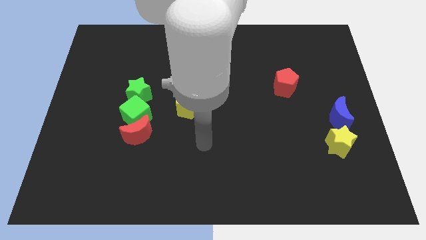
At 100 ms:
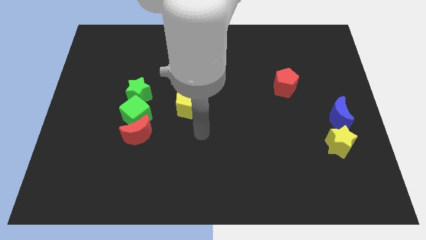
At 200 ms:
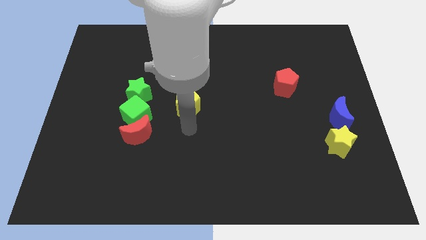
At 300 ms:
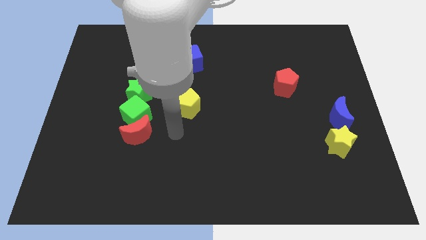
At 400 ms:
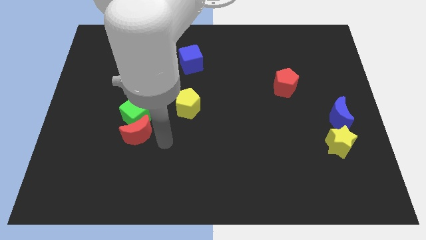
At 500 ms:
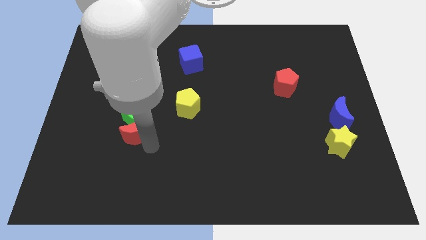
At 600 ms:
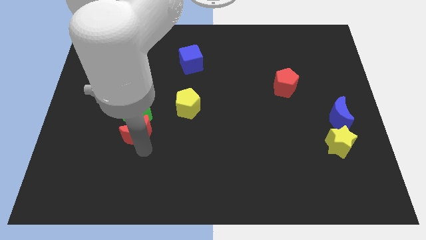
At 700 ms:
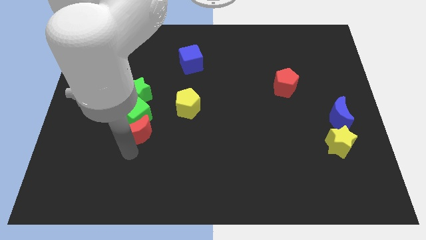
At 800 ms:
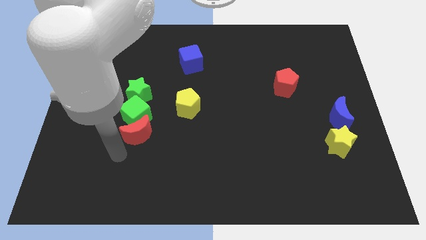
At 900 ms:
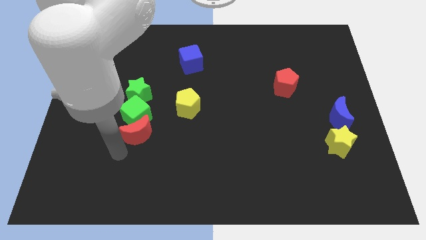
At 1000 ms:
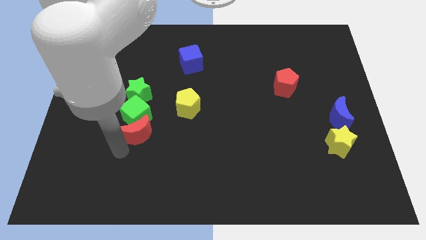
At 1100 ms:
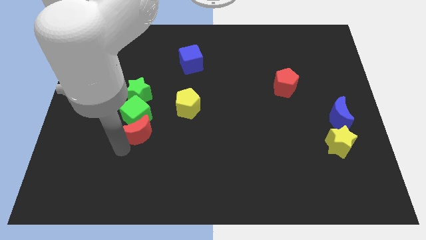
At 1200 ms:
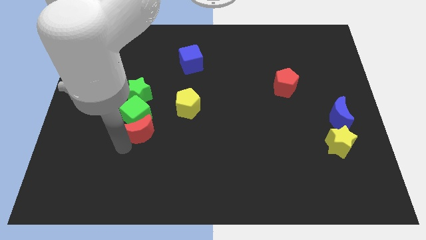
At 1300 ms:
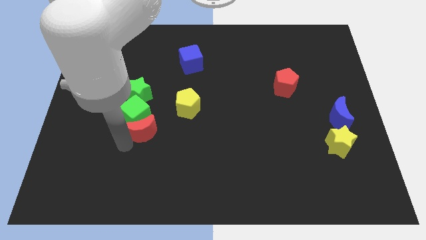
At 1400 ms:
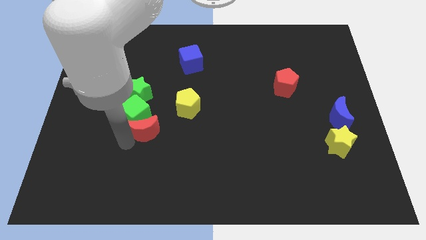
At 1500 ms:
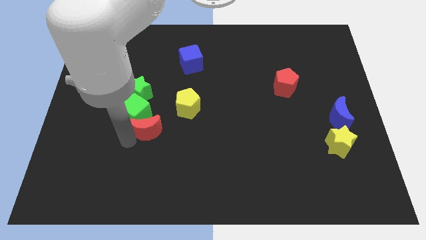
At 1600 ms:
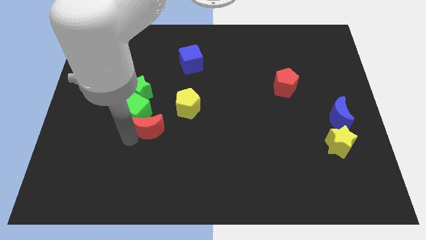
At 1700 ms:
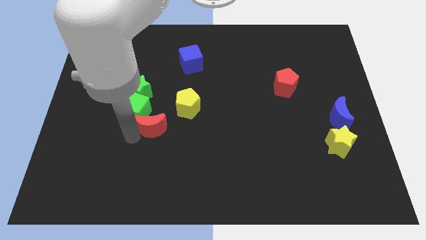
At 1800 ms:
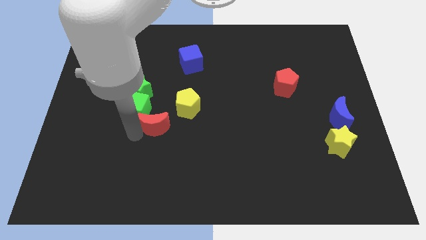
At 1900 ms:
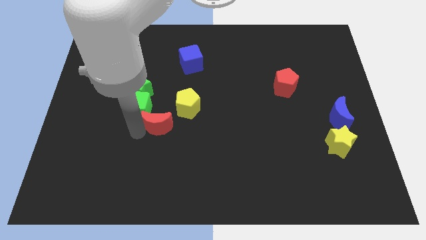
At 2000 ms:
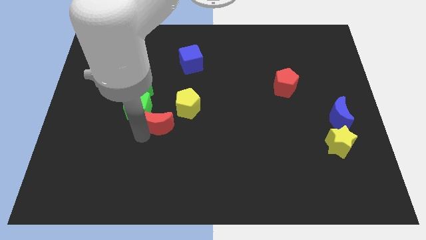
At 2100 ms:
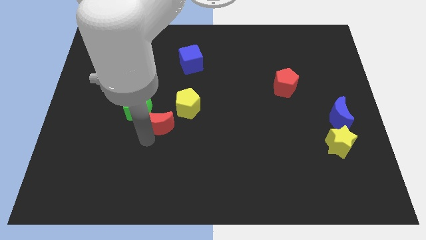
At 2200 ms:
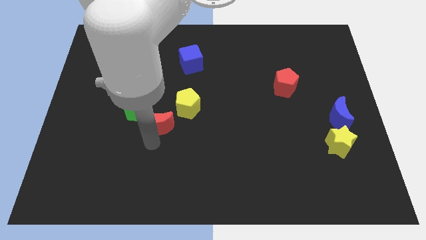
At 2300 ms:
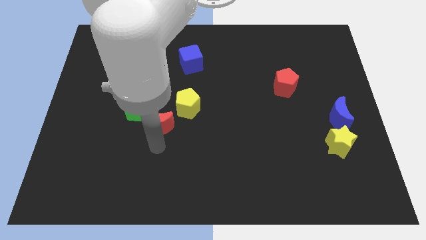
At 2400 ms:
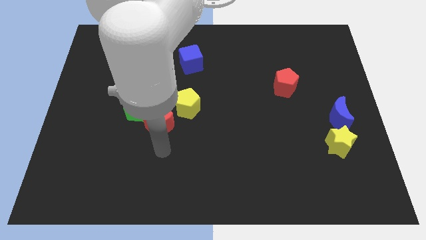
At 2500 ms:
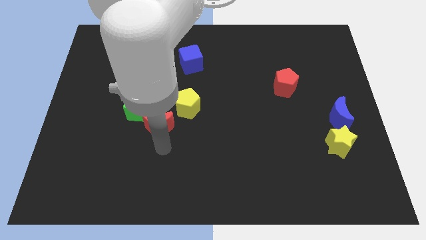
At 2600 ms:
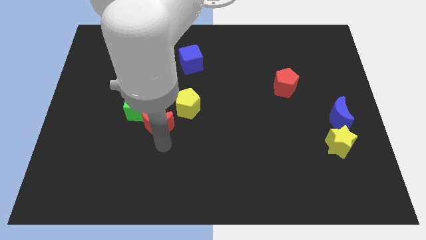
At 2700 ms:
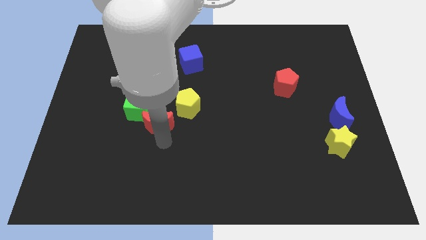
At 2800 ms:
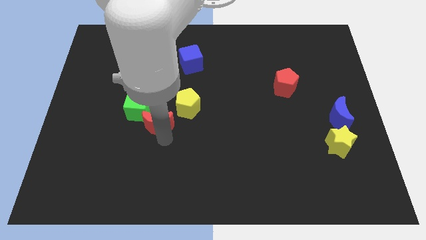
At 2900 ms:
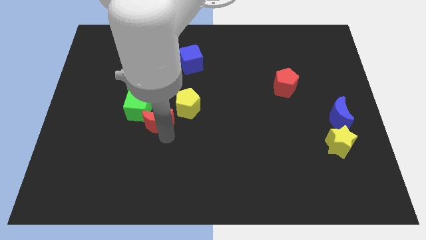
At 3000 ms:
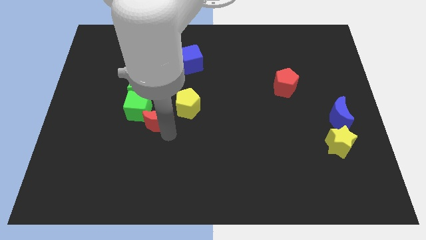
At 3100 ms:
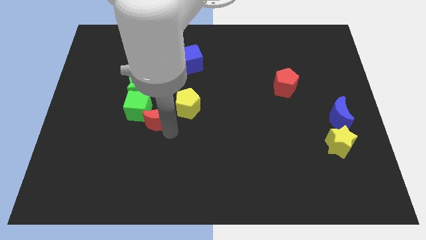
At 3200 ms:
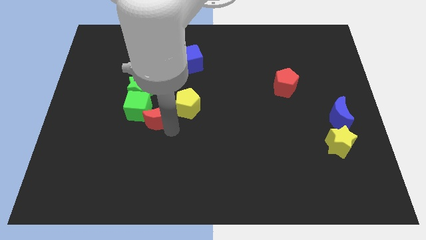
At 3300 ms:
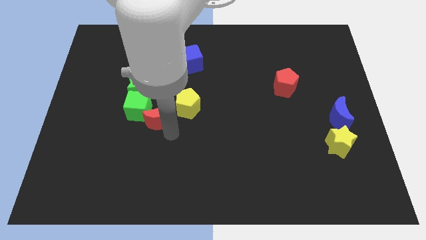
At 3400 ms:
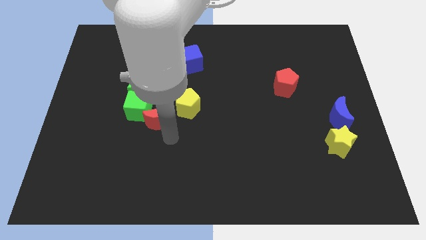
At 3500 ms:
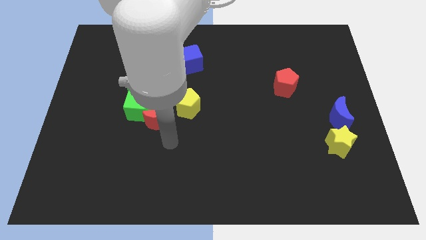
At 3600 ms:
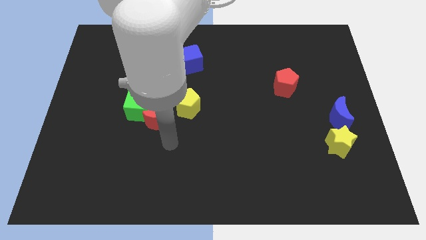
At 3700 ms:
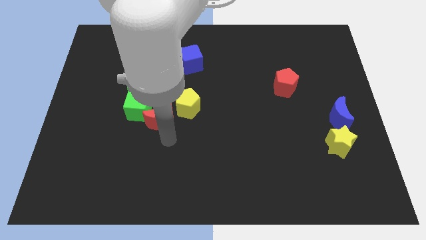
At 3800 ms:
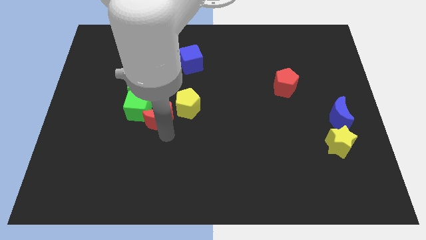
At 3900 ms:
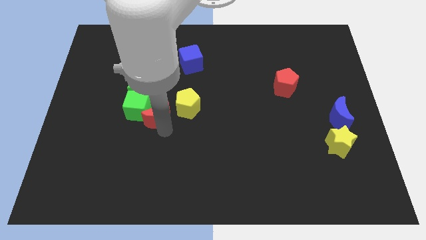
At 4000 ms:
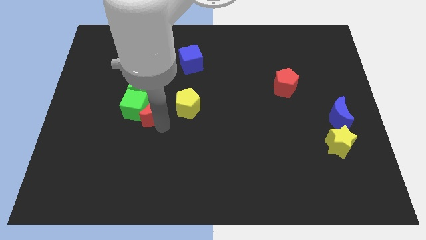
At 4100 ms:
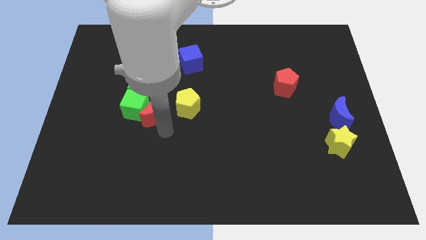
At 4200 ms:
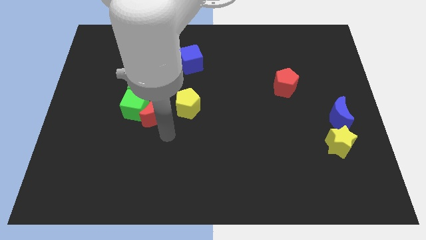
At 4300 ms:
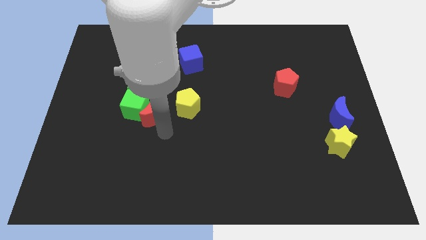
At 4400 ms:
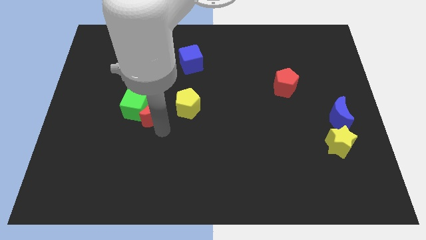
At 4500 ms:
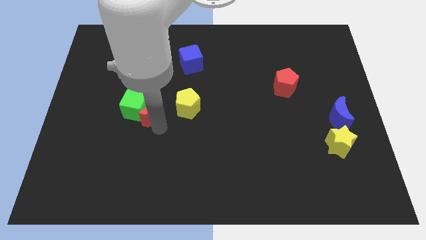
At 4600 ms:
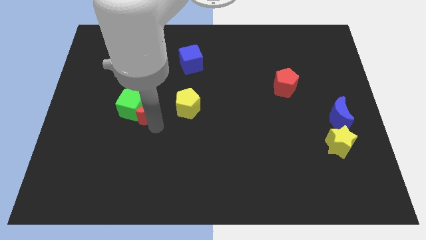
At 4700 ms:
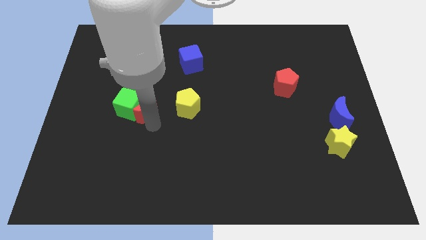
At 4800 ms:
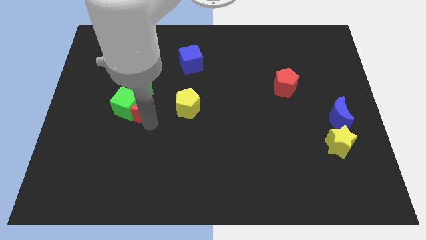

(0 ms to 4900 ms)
slide the red moon towards the green star

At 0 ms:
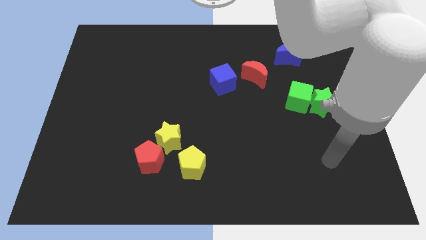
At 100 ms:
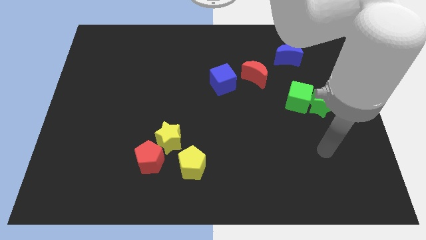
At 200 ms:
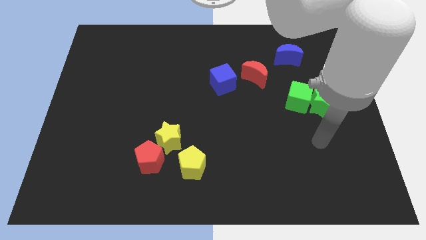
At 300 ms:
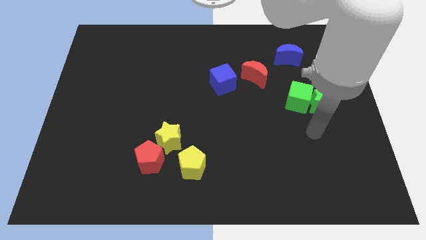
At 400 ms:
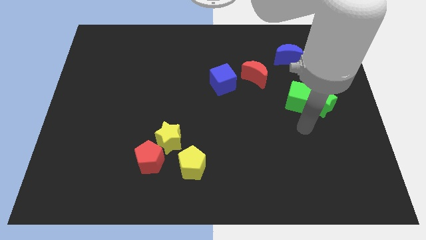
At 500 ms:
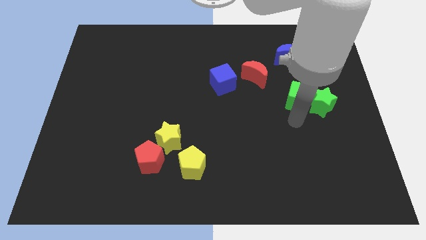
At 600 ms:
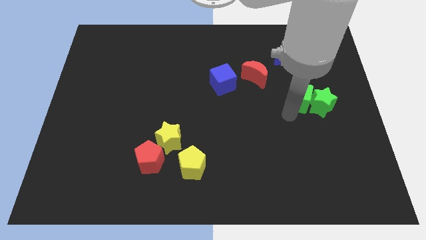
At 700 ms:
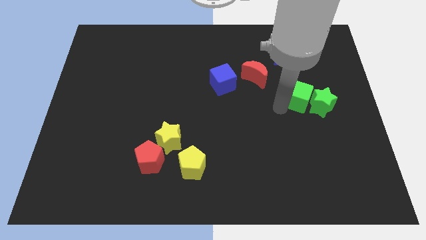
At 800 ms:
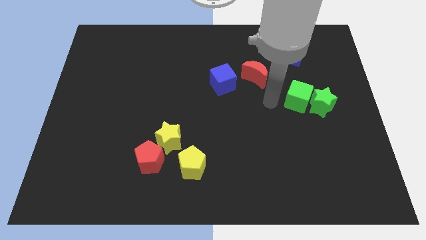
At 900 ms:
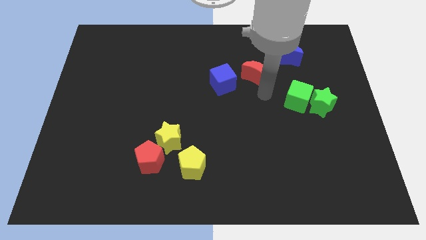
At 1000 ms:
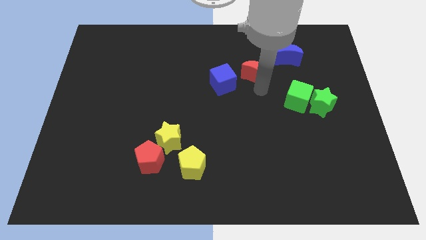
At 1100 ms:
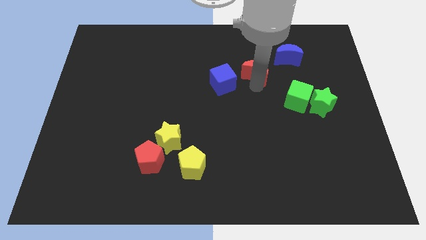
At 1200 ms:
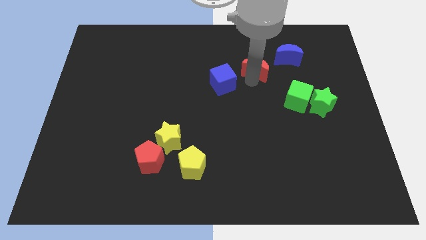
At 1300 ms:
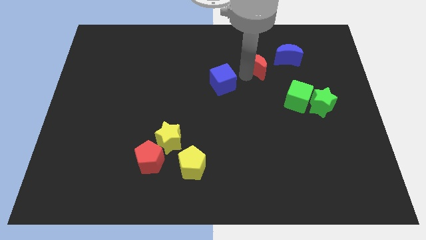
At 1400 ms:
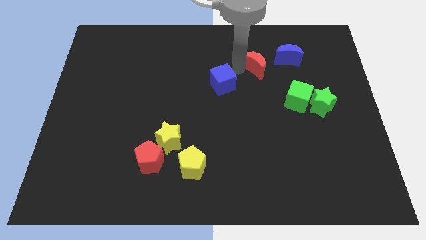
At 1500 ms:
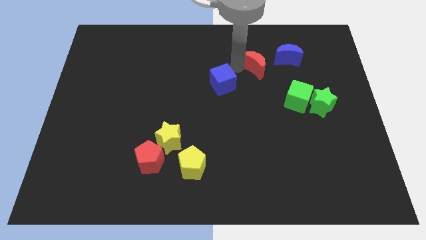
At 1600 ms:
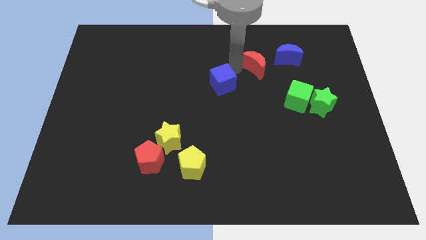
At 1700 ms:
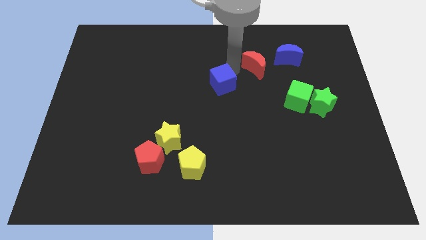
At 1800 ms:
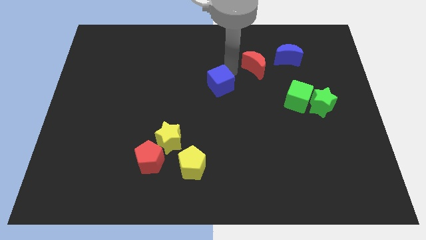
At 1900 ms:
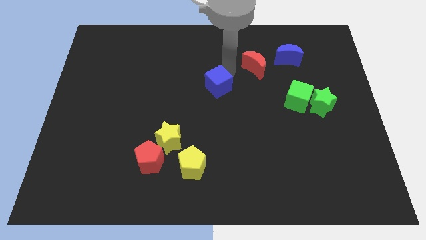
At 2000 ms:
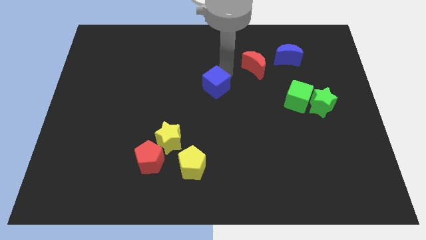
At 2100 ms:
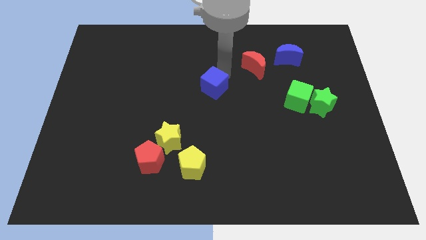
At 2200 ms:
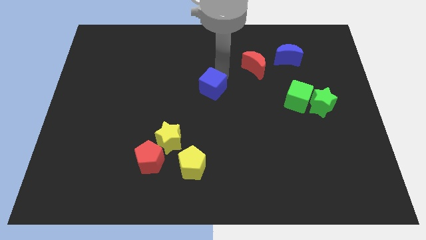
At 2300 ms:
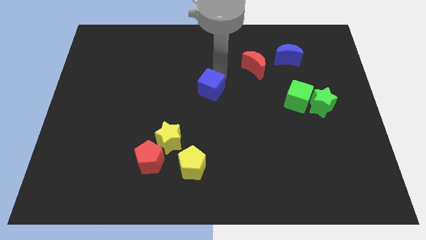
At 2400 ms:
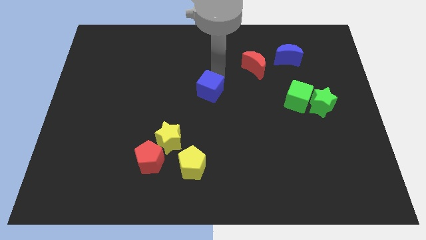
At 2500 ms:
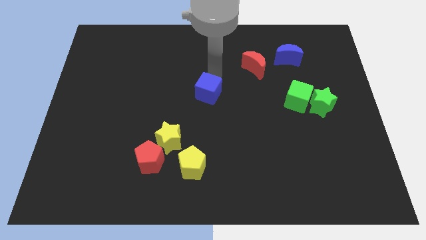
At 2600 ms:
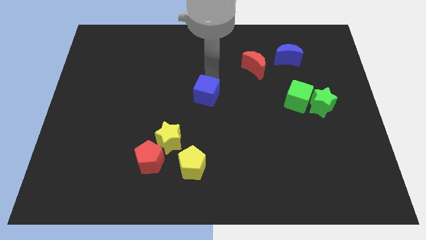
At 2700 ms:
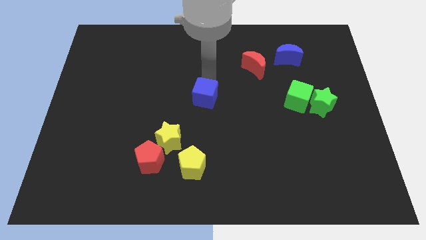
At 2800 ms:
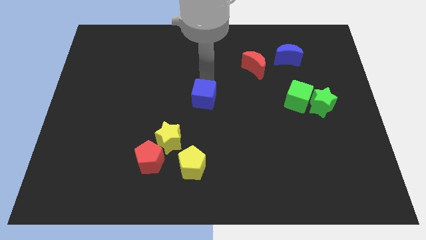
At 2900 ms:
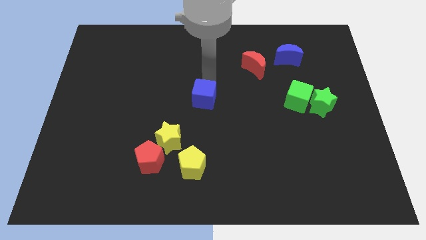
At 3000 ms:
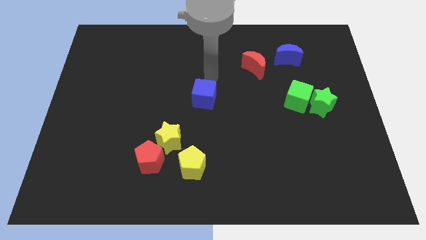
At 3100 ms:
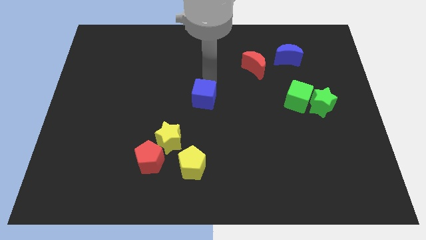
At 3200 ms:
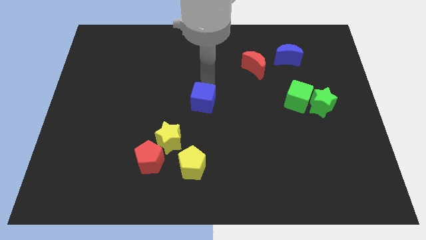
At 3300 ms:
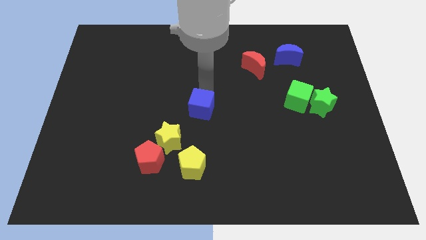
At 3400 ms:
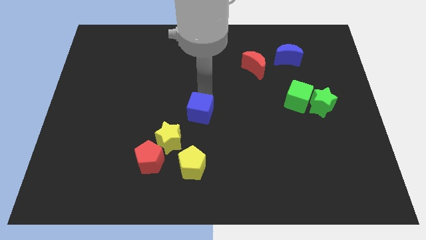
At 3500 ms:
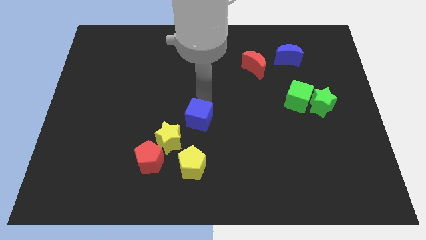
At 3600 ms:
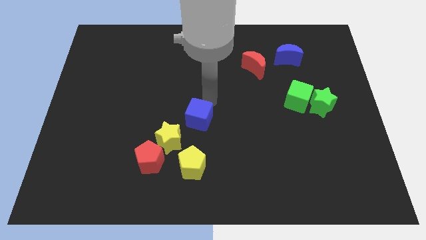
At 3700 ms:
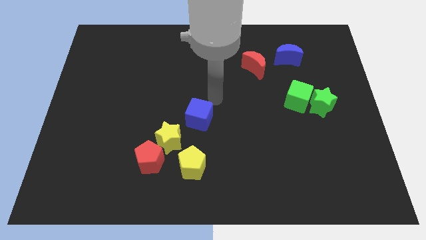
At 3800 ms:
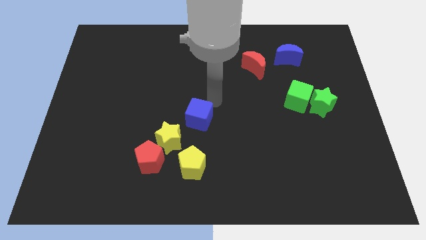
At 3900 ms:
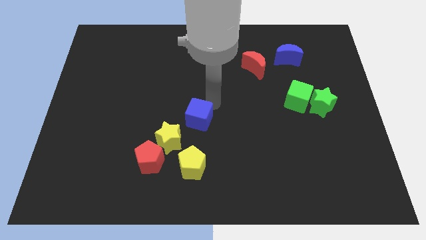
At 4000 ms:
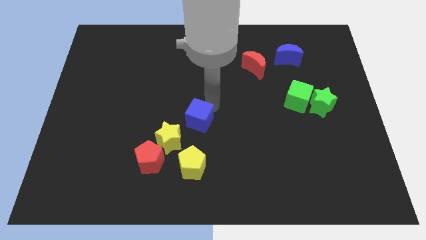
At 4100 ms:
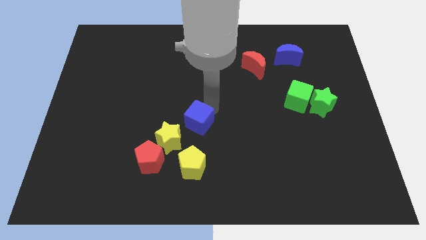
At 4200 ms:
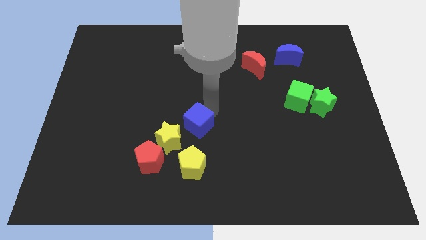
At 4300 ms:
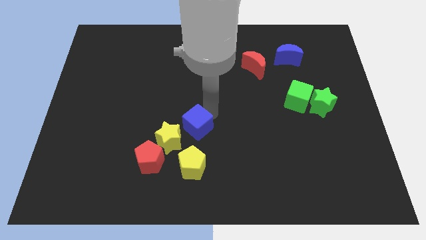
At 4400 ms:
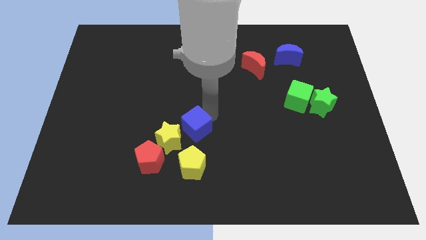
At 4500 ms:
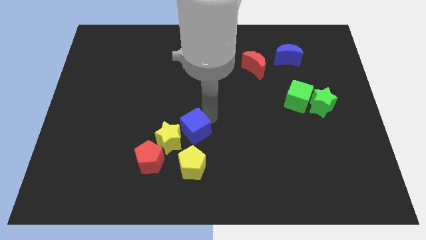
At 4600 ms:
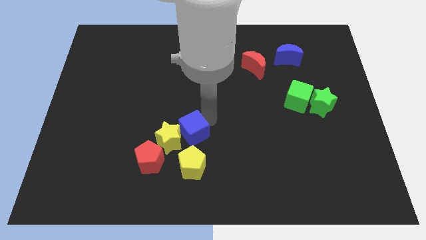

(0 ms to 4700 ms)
push the blue cube next to the yellow star
